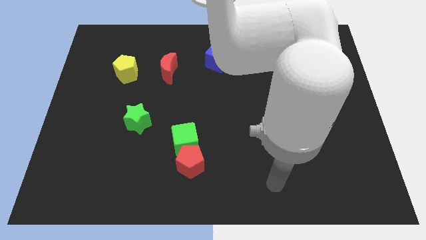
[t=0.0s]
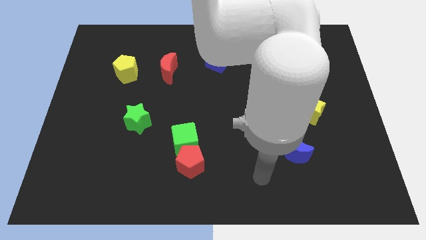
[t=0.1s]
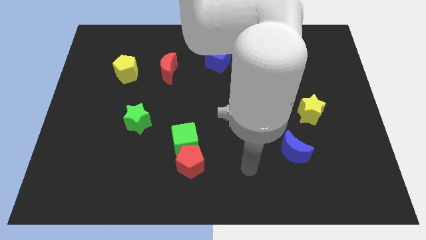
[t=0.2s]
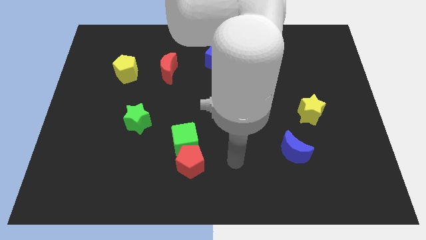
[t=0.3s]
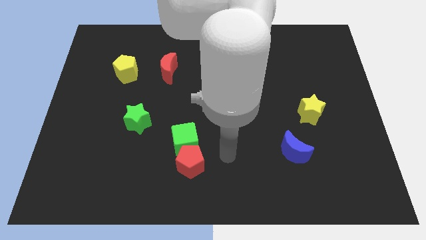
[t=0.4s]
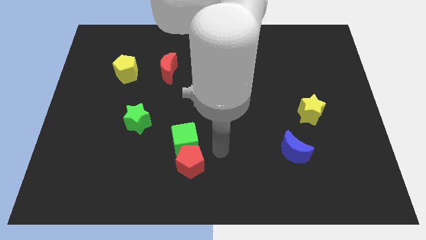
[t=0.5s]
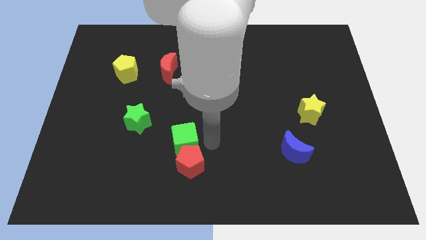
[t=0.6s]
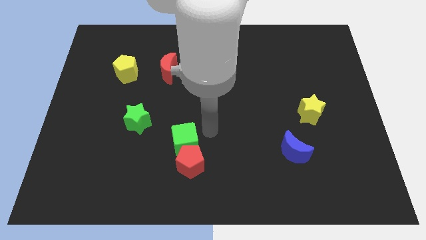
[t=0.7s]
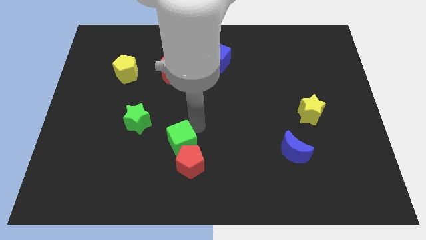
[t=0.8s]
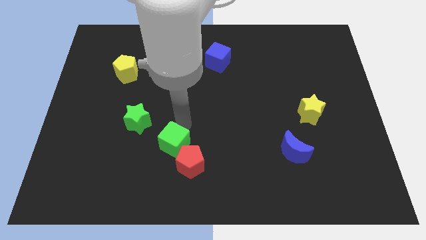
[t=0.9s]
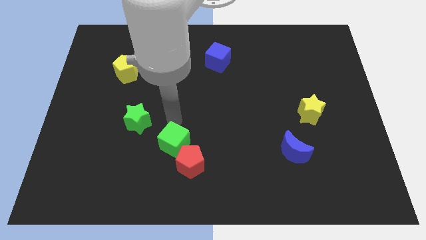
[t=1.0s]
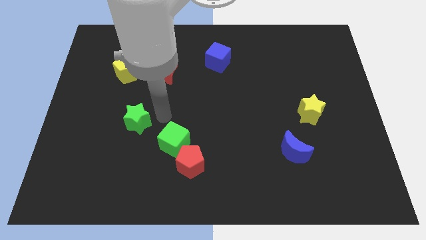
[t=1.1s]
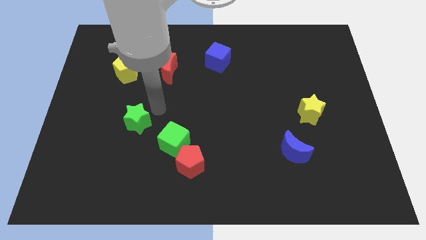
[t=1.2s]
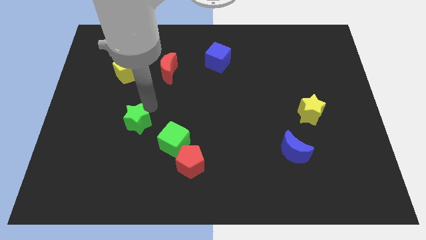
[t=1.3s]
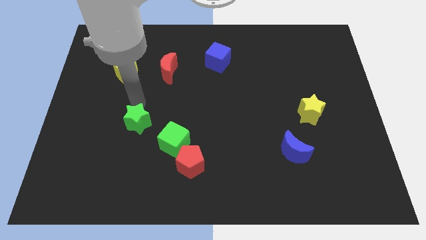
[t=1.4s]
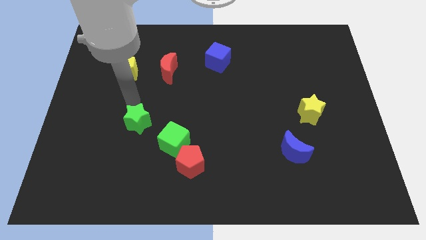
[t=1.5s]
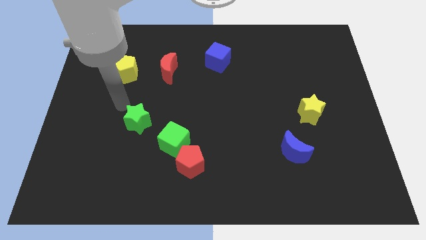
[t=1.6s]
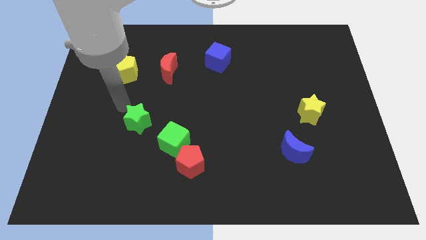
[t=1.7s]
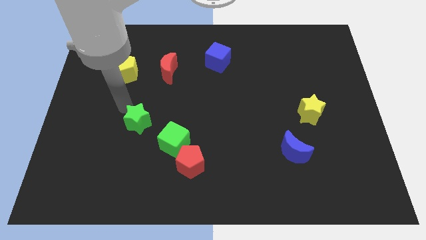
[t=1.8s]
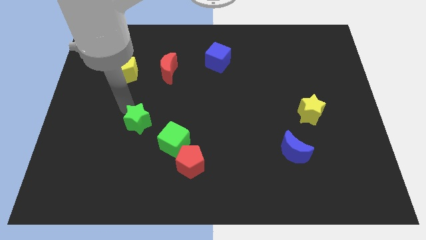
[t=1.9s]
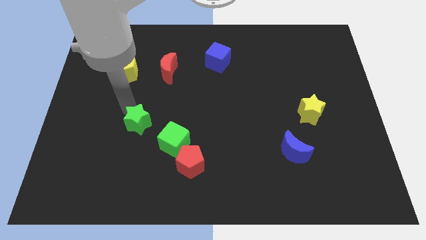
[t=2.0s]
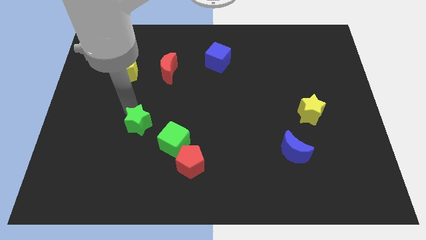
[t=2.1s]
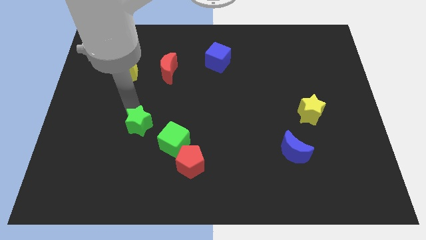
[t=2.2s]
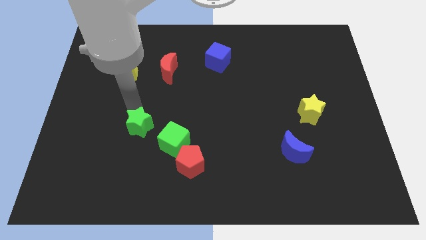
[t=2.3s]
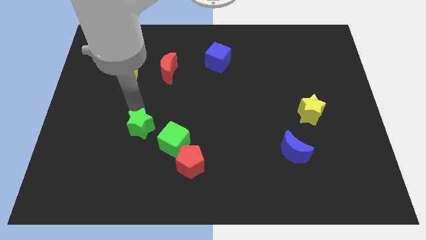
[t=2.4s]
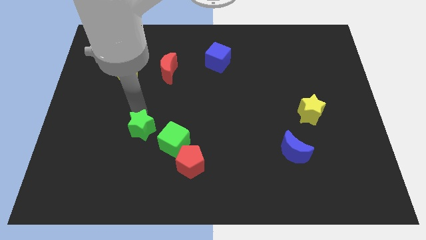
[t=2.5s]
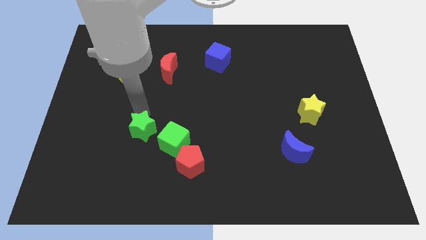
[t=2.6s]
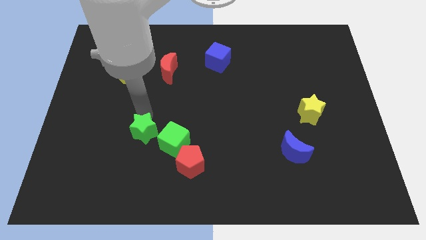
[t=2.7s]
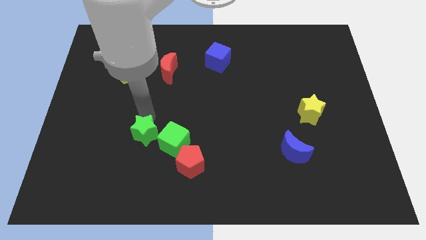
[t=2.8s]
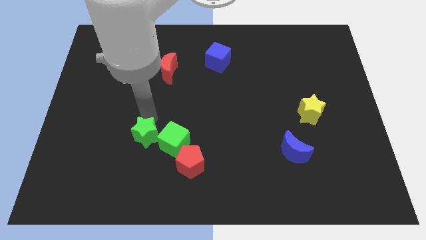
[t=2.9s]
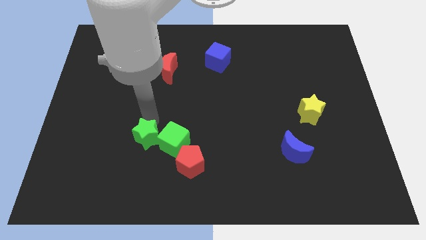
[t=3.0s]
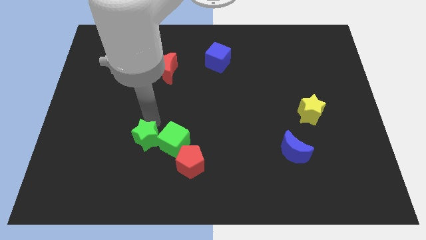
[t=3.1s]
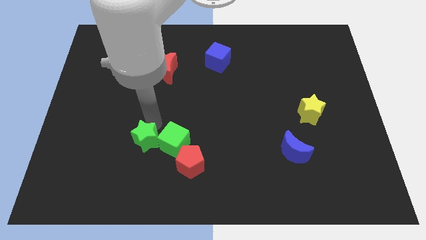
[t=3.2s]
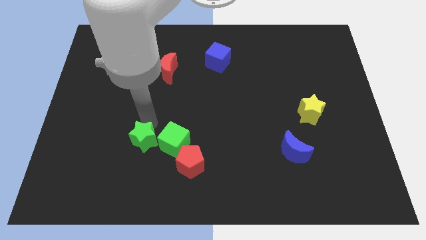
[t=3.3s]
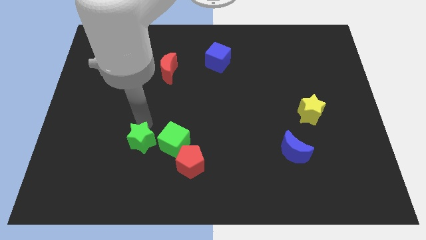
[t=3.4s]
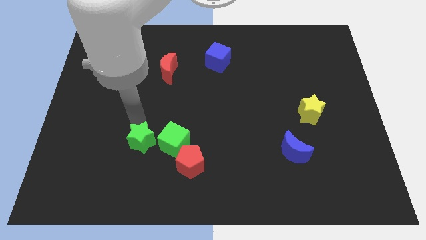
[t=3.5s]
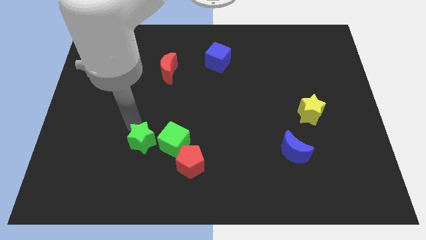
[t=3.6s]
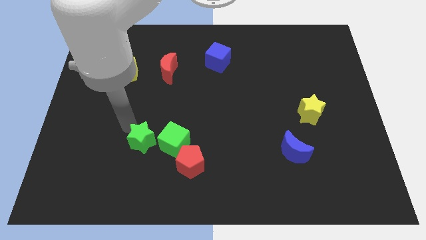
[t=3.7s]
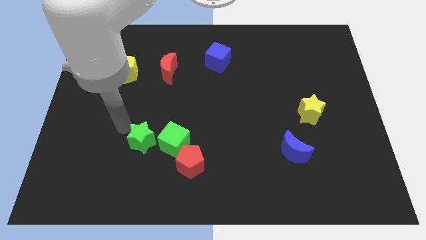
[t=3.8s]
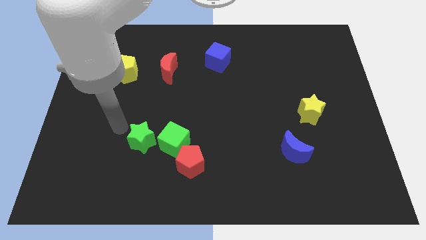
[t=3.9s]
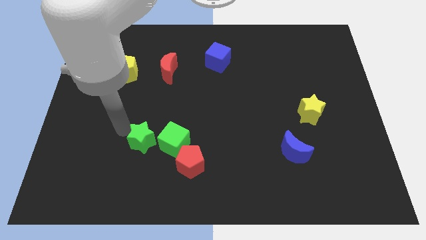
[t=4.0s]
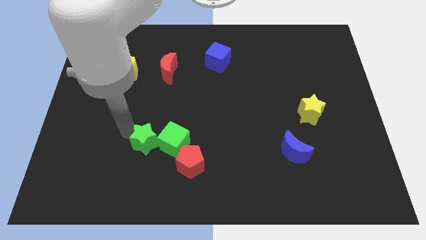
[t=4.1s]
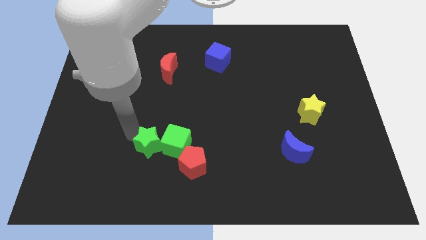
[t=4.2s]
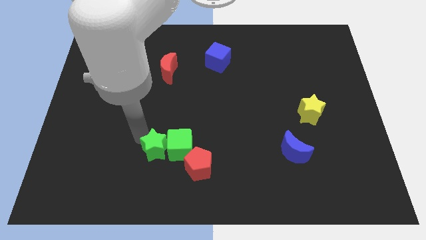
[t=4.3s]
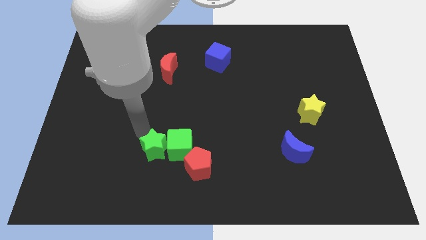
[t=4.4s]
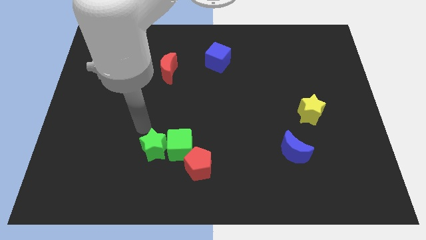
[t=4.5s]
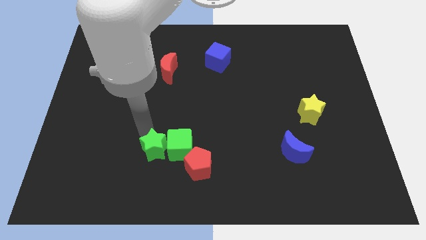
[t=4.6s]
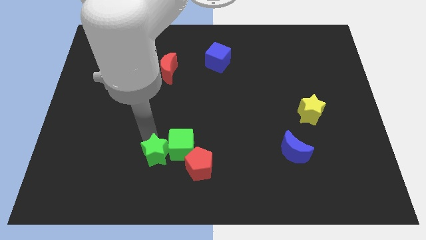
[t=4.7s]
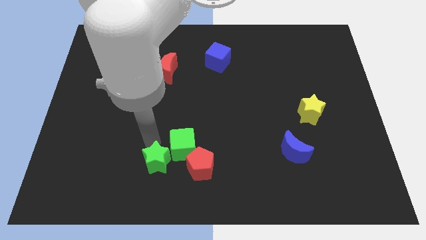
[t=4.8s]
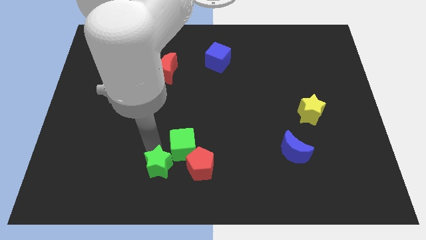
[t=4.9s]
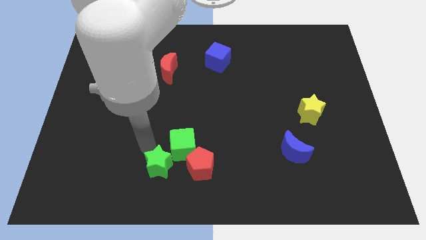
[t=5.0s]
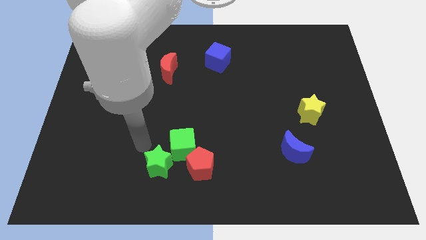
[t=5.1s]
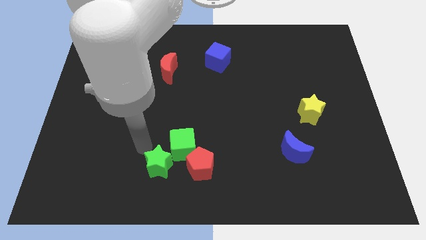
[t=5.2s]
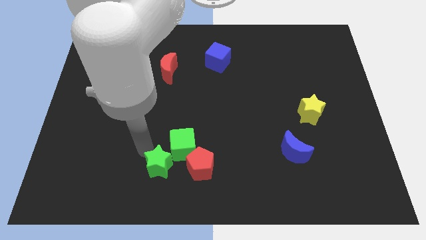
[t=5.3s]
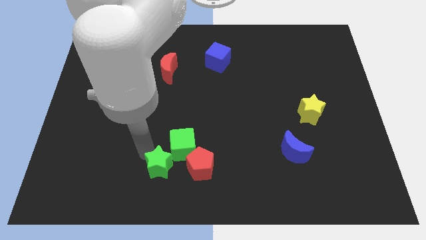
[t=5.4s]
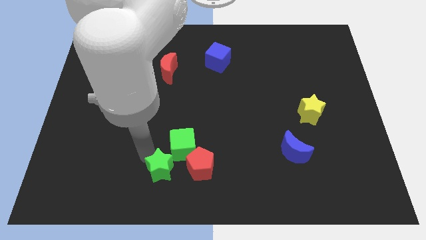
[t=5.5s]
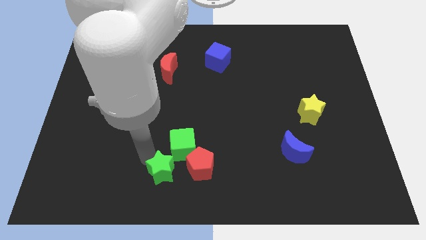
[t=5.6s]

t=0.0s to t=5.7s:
put the green star to the bottom
